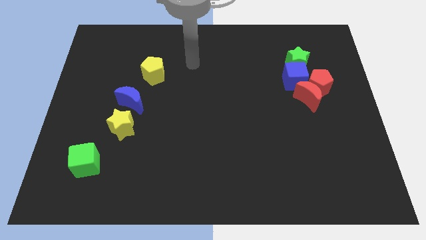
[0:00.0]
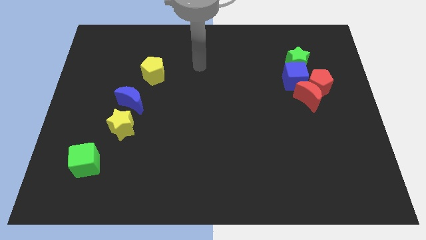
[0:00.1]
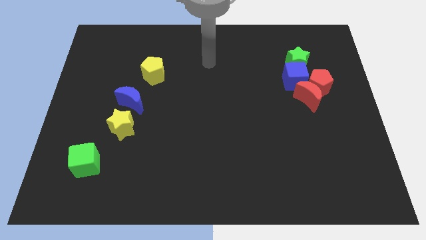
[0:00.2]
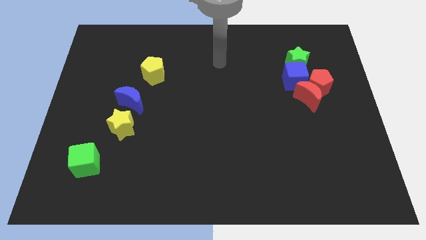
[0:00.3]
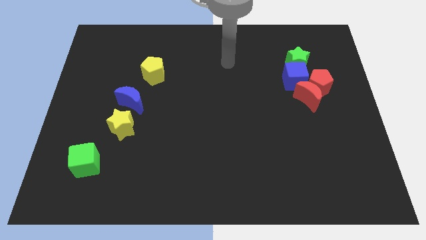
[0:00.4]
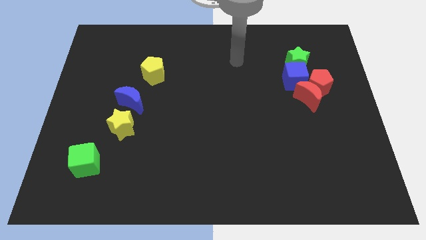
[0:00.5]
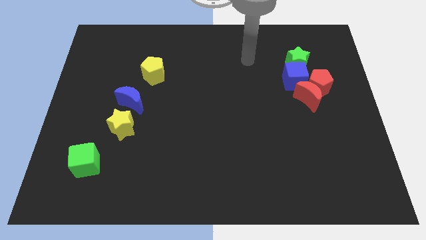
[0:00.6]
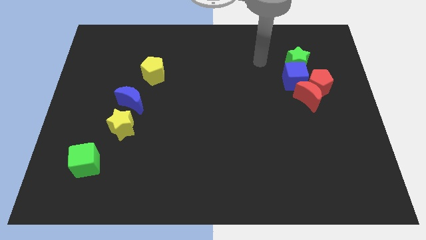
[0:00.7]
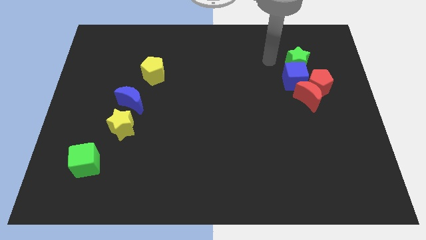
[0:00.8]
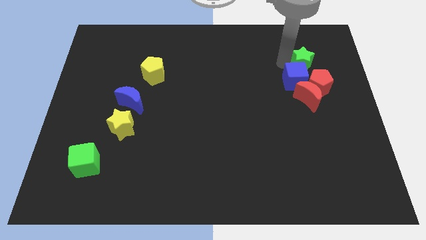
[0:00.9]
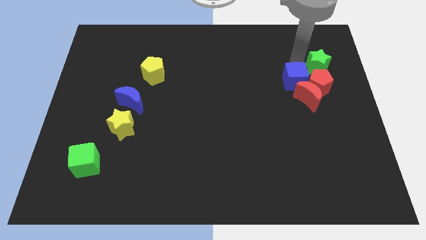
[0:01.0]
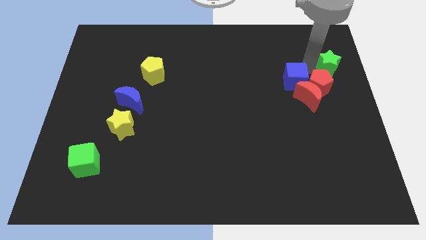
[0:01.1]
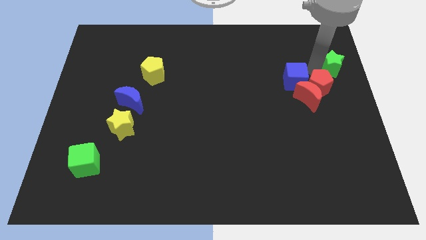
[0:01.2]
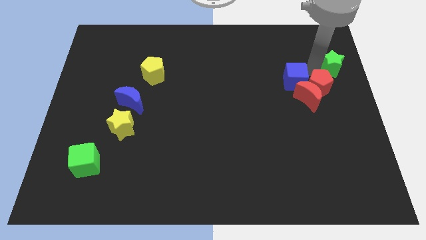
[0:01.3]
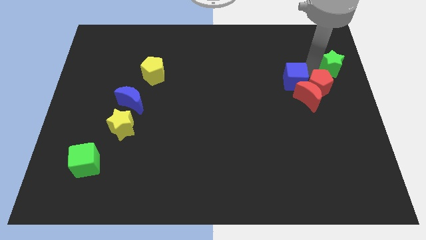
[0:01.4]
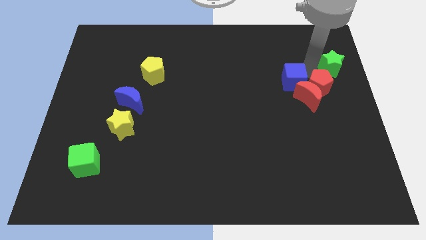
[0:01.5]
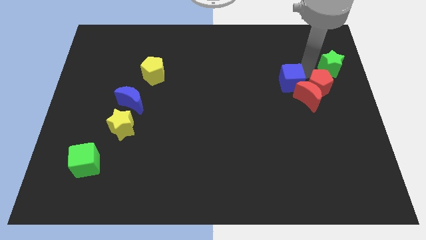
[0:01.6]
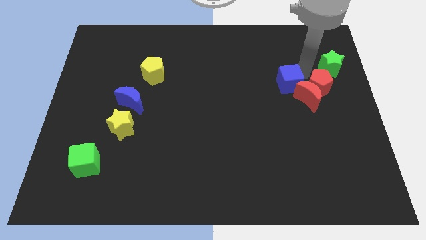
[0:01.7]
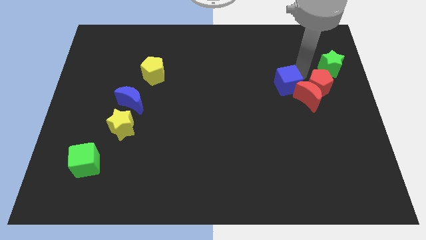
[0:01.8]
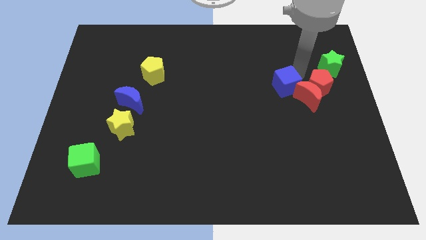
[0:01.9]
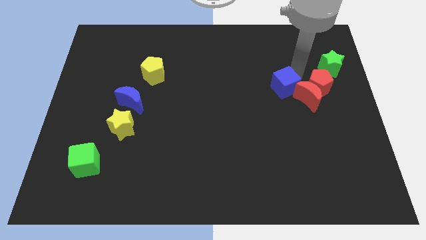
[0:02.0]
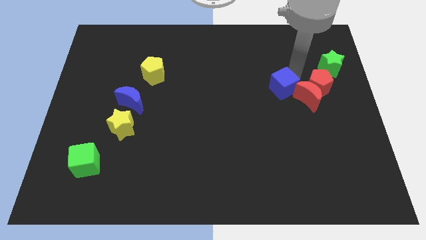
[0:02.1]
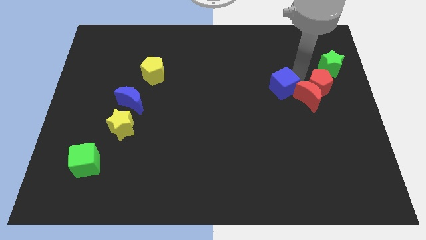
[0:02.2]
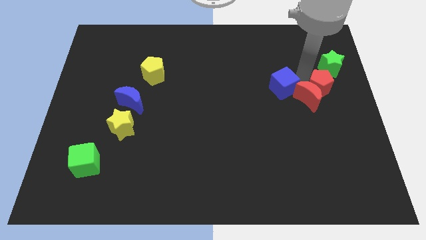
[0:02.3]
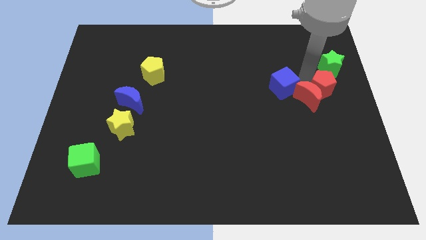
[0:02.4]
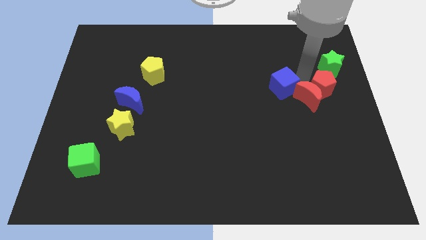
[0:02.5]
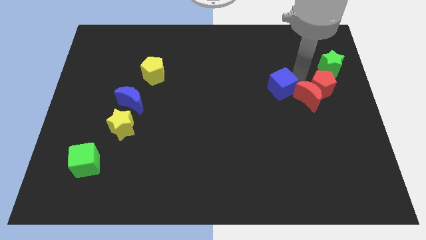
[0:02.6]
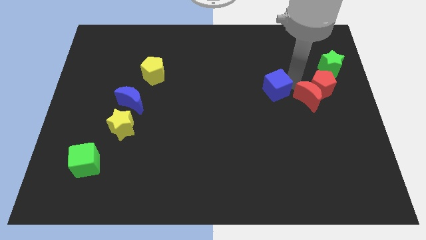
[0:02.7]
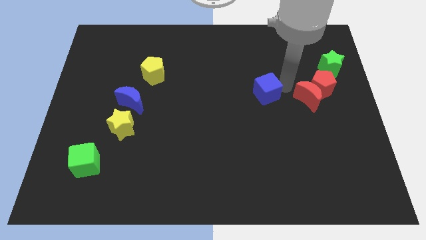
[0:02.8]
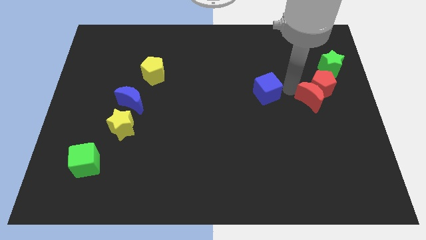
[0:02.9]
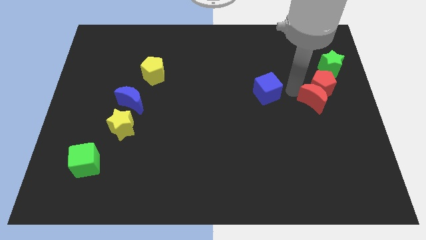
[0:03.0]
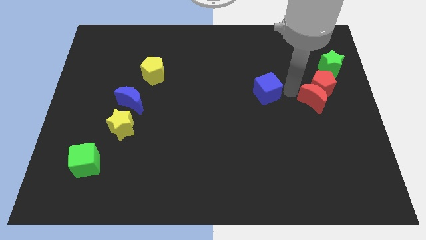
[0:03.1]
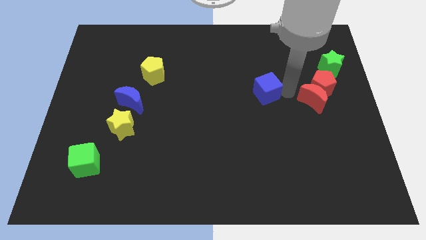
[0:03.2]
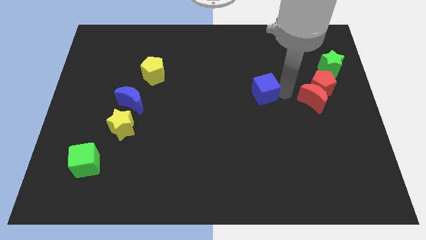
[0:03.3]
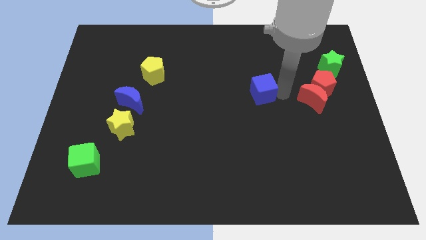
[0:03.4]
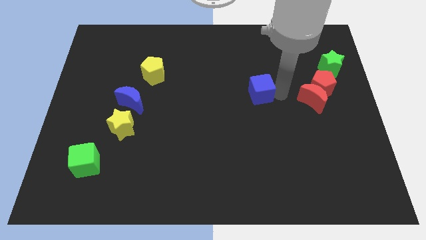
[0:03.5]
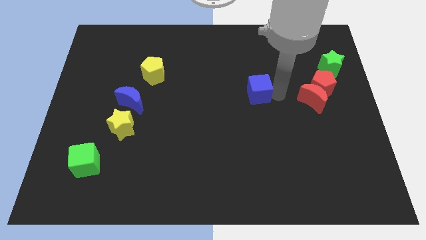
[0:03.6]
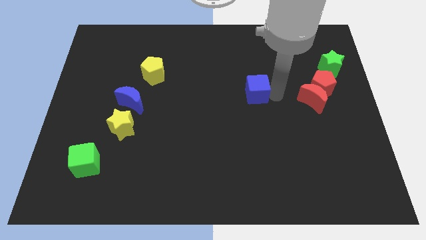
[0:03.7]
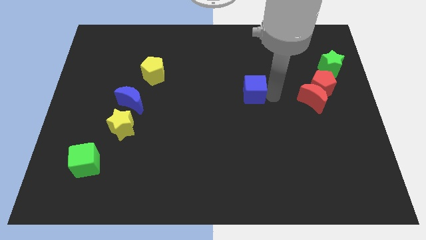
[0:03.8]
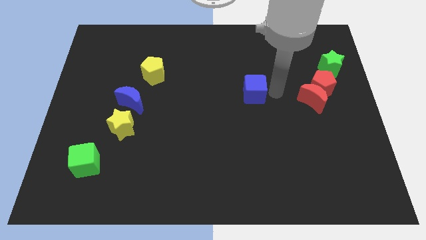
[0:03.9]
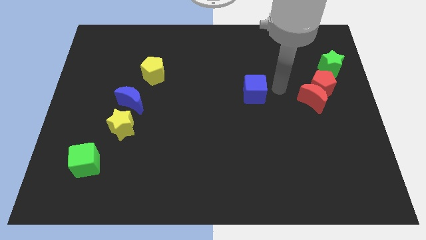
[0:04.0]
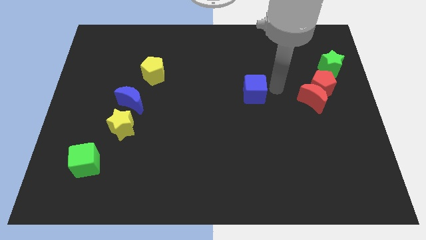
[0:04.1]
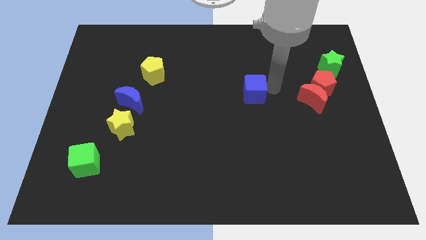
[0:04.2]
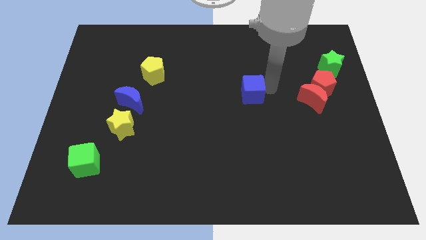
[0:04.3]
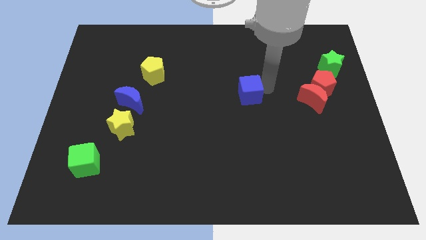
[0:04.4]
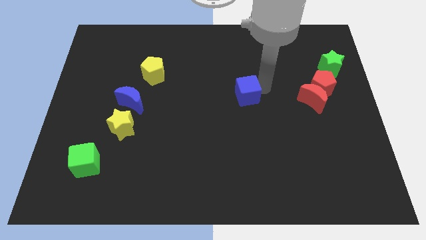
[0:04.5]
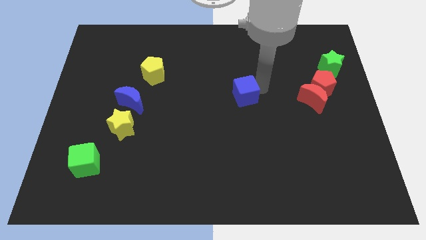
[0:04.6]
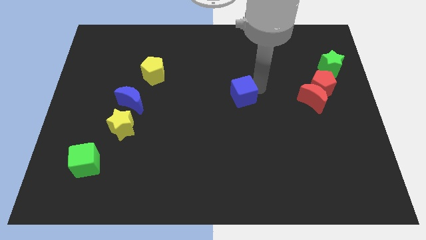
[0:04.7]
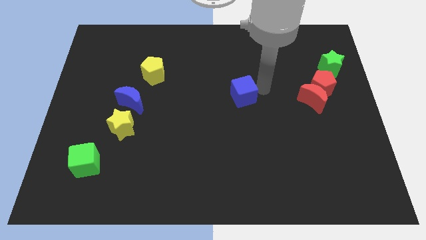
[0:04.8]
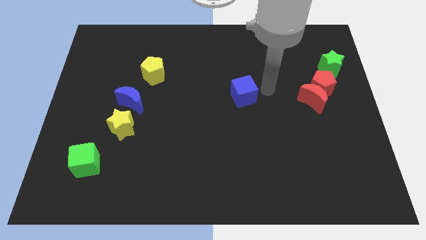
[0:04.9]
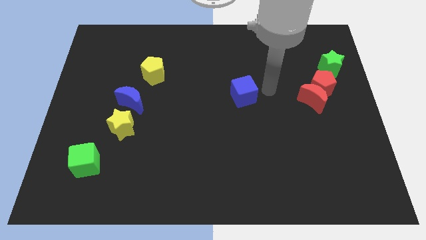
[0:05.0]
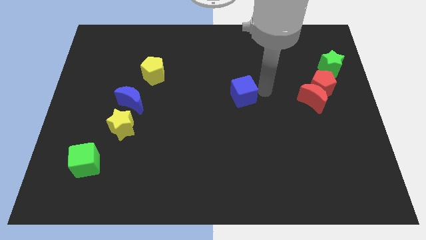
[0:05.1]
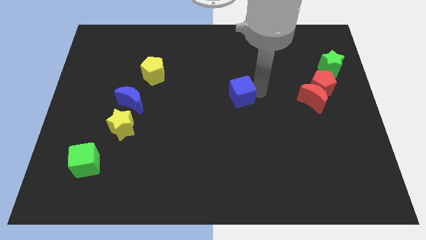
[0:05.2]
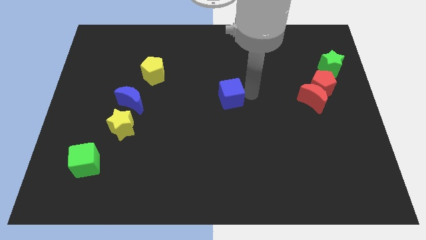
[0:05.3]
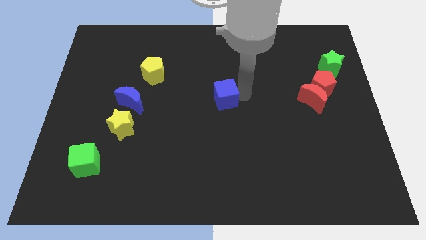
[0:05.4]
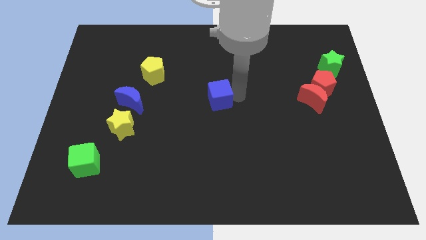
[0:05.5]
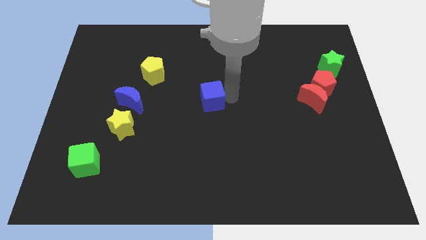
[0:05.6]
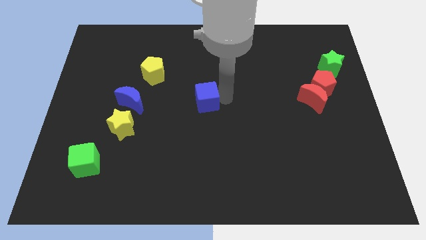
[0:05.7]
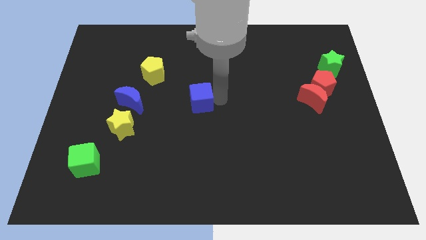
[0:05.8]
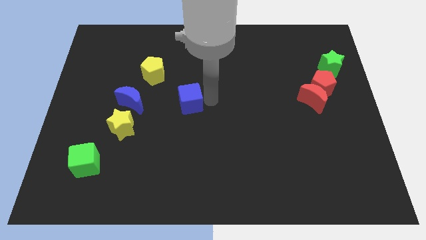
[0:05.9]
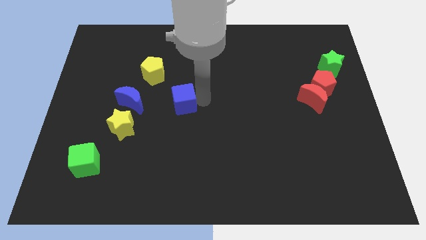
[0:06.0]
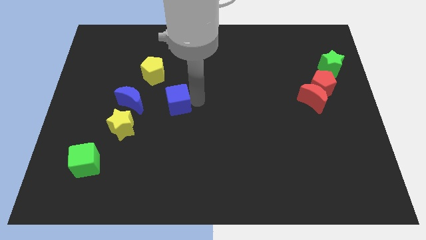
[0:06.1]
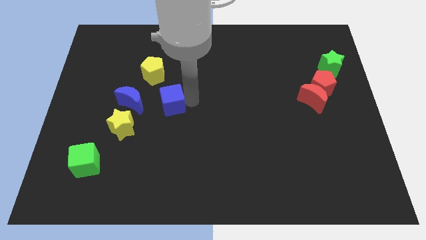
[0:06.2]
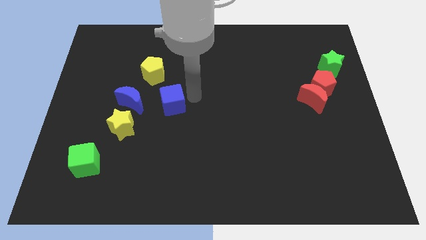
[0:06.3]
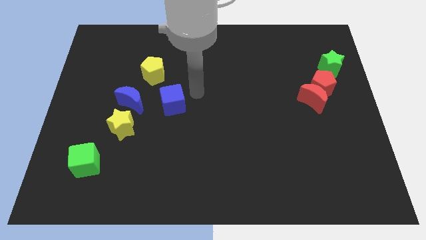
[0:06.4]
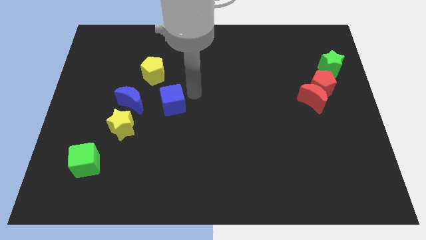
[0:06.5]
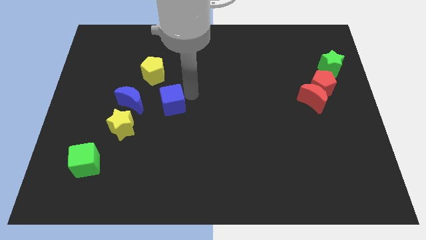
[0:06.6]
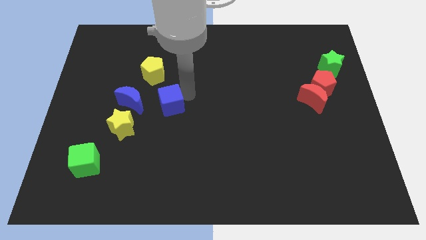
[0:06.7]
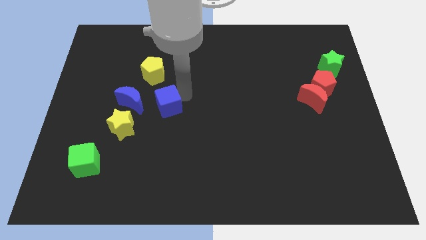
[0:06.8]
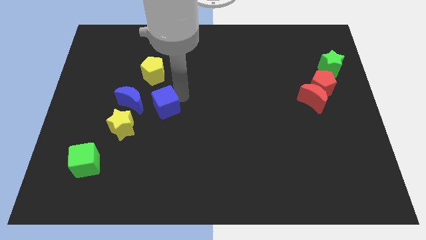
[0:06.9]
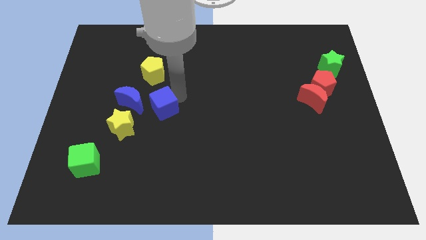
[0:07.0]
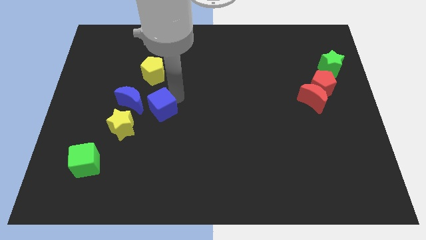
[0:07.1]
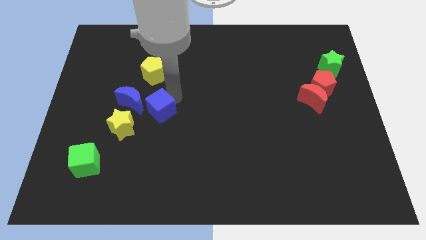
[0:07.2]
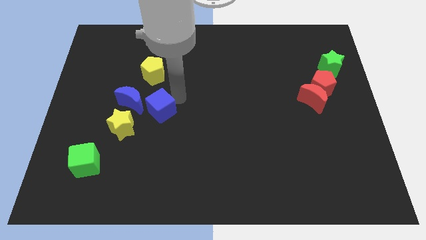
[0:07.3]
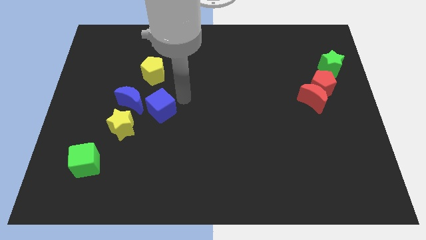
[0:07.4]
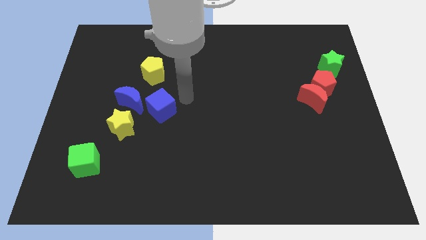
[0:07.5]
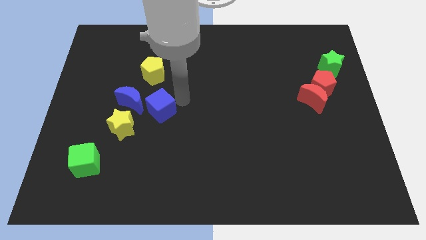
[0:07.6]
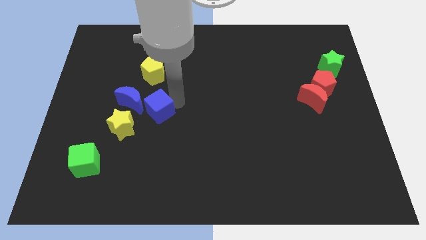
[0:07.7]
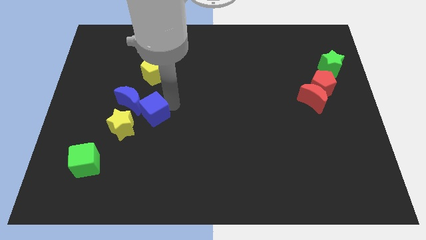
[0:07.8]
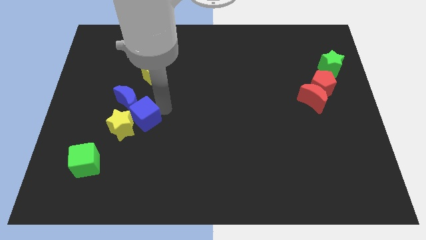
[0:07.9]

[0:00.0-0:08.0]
put the blue cube to the yellow star
